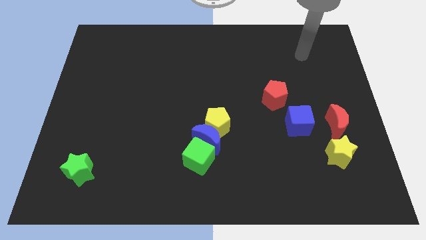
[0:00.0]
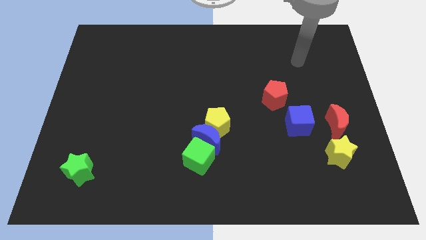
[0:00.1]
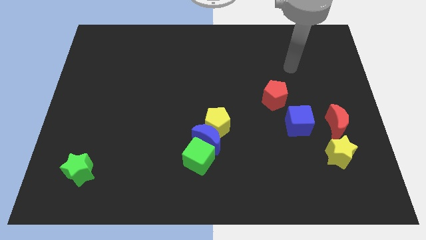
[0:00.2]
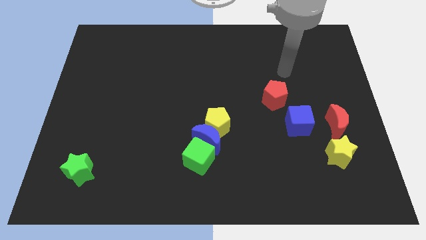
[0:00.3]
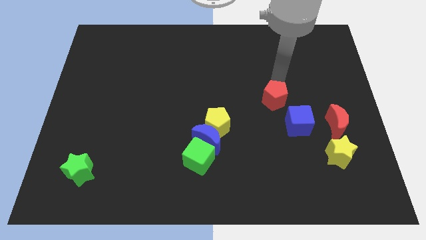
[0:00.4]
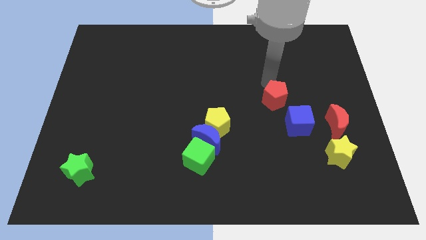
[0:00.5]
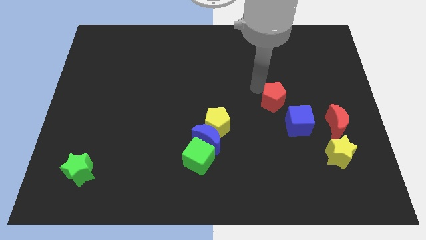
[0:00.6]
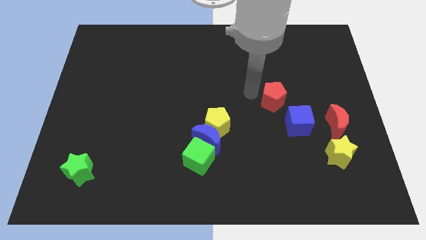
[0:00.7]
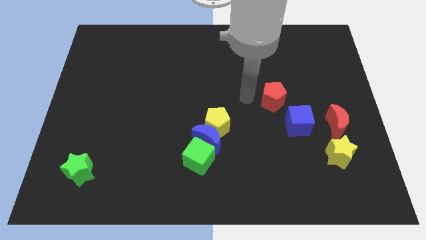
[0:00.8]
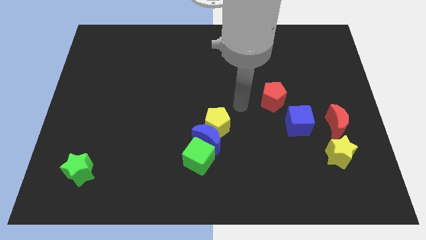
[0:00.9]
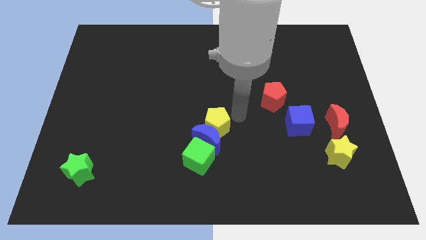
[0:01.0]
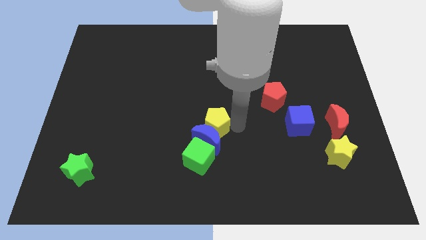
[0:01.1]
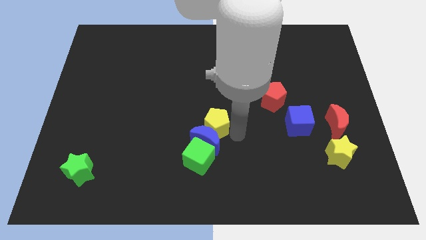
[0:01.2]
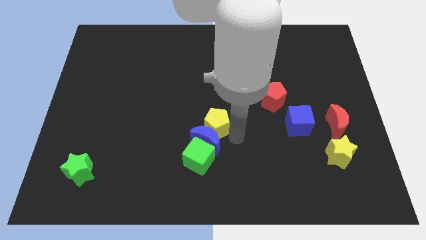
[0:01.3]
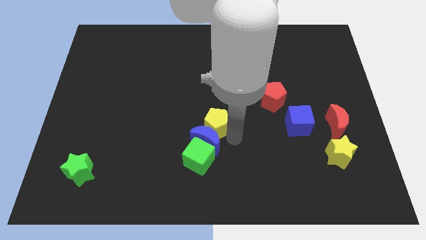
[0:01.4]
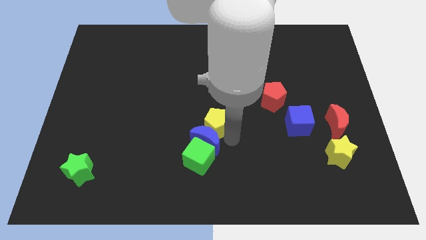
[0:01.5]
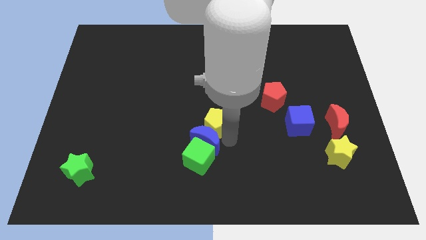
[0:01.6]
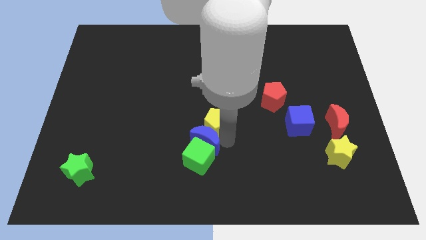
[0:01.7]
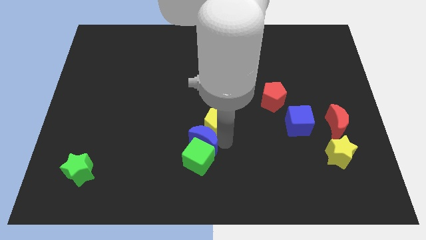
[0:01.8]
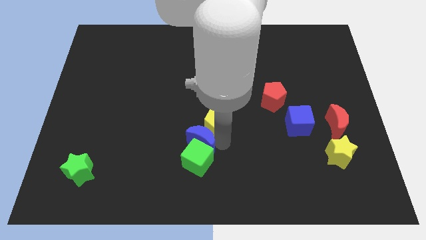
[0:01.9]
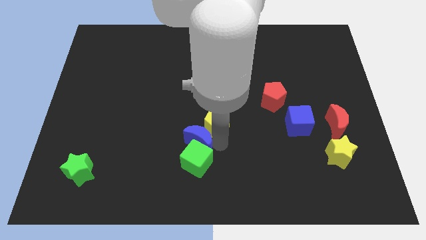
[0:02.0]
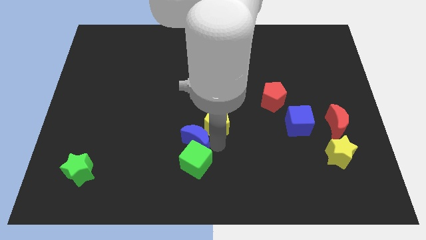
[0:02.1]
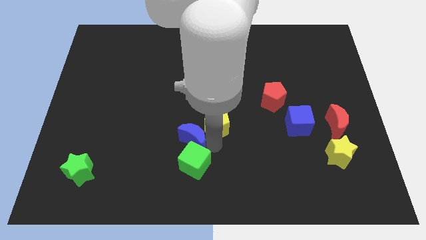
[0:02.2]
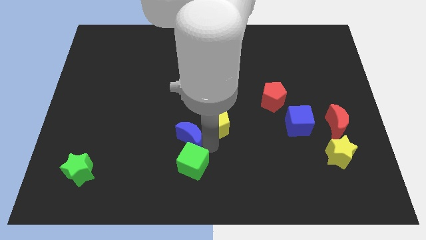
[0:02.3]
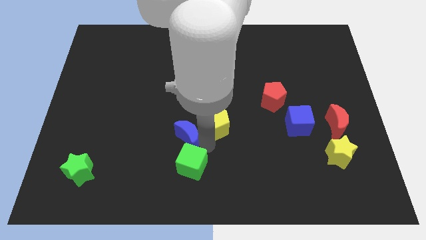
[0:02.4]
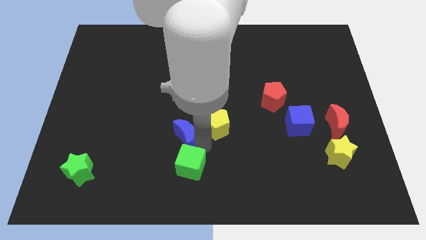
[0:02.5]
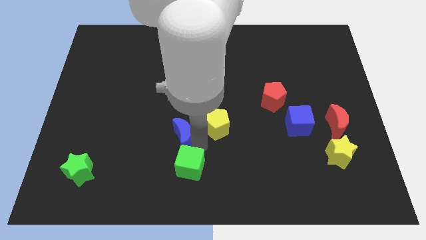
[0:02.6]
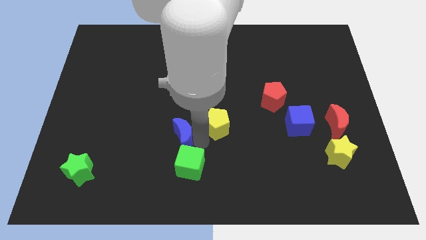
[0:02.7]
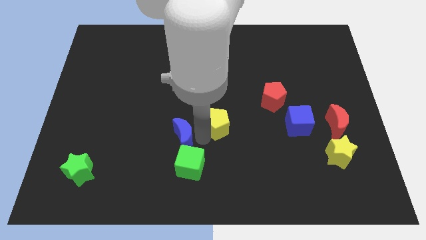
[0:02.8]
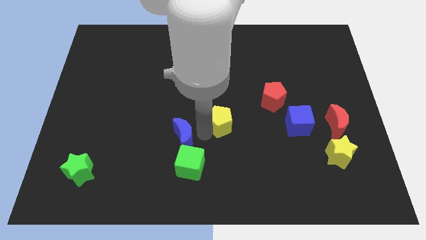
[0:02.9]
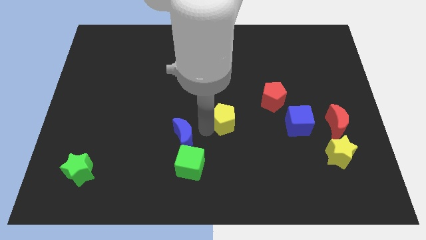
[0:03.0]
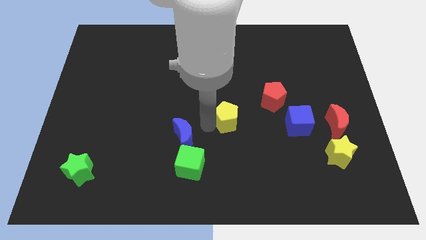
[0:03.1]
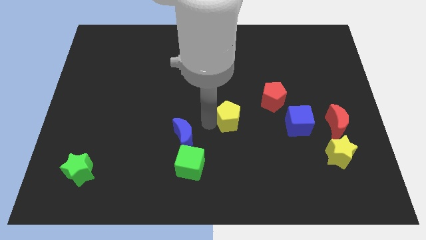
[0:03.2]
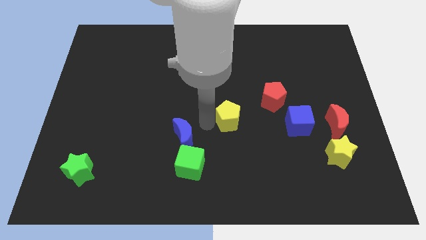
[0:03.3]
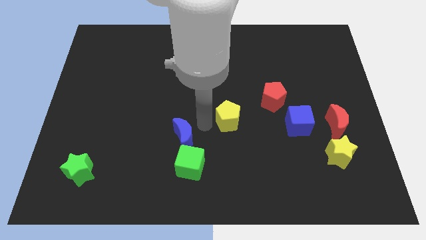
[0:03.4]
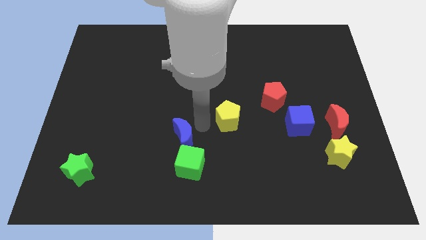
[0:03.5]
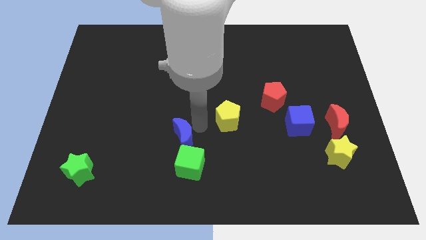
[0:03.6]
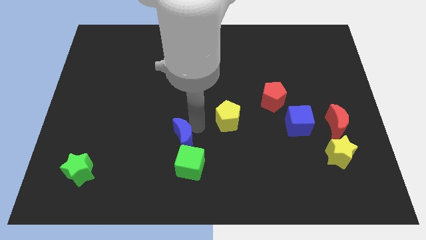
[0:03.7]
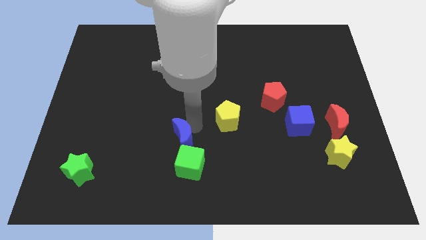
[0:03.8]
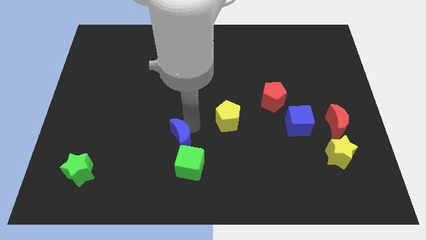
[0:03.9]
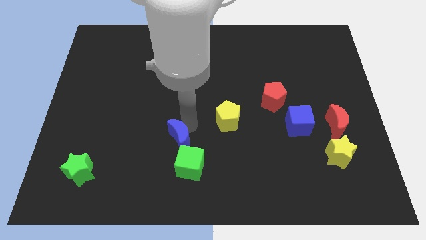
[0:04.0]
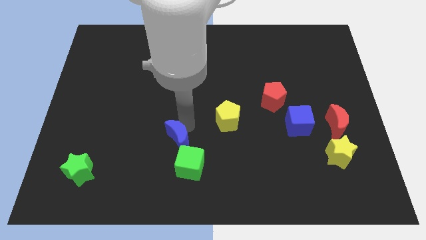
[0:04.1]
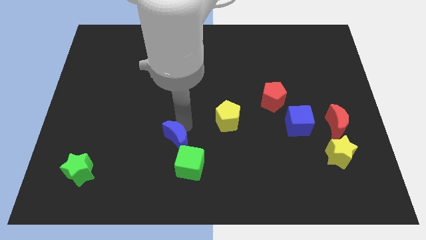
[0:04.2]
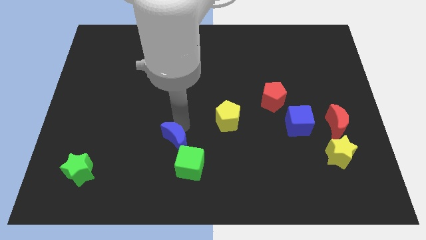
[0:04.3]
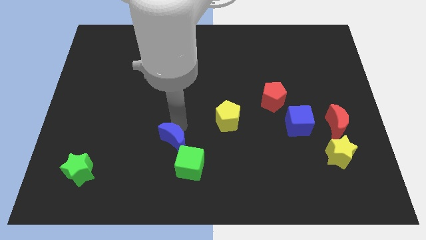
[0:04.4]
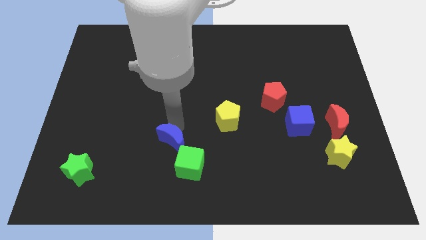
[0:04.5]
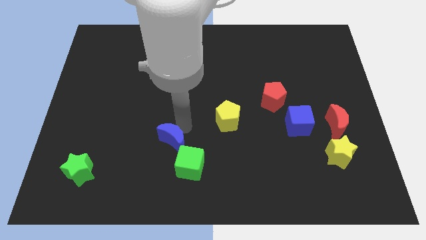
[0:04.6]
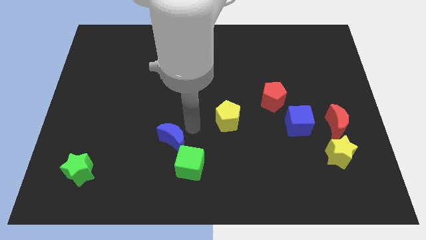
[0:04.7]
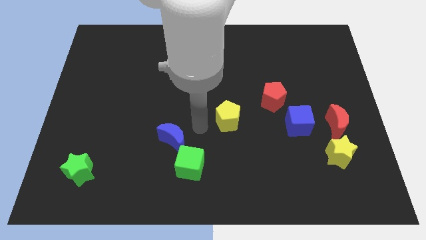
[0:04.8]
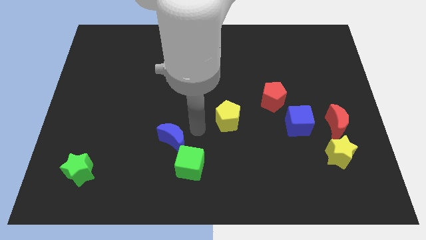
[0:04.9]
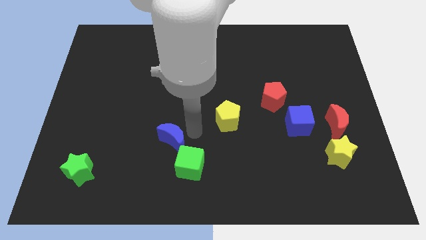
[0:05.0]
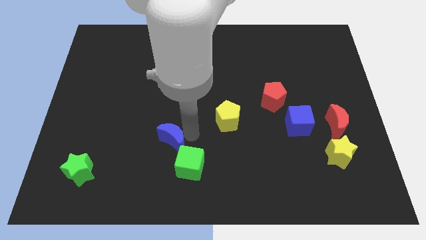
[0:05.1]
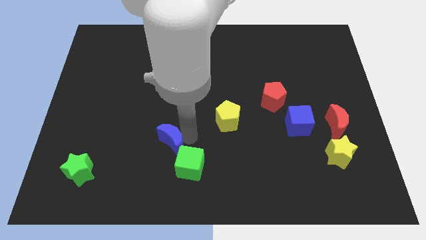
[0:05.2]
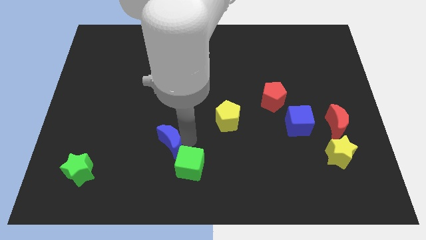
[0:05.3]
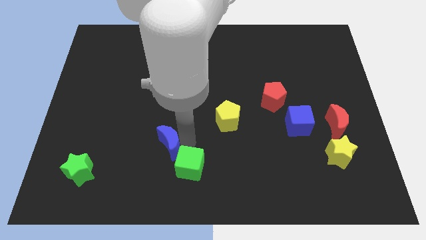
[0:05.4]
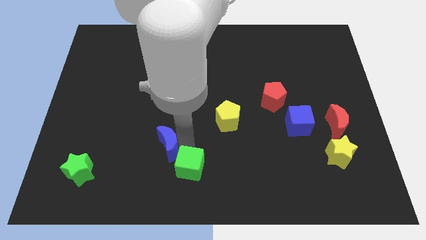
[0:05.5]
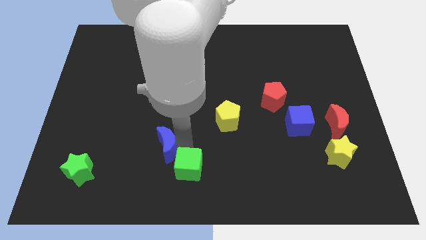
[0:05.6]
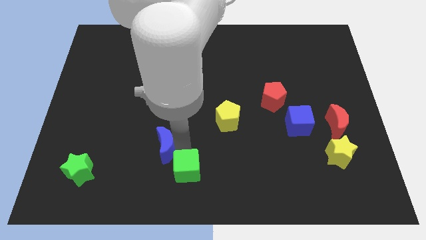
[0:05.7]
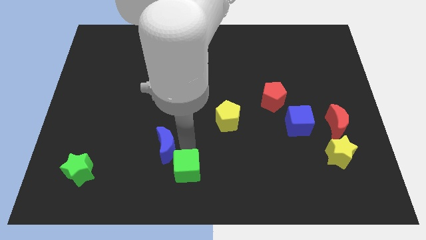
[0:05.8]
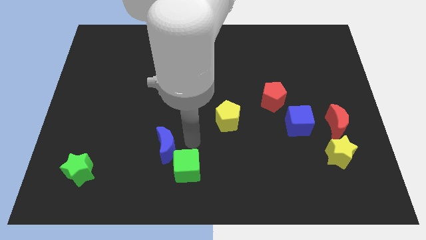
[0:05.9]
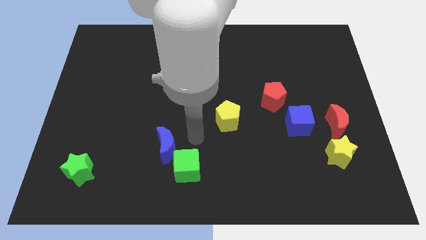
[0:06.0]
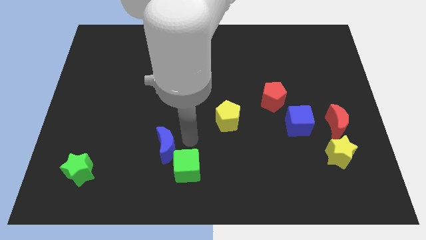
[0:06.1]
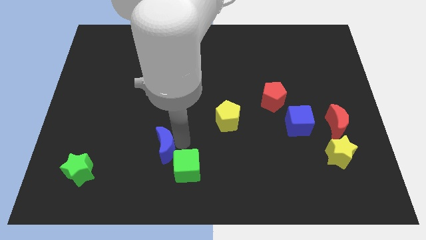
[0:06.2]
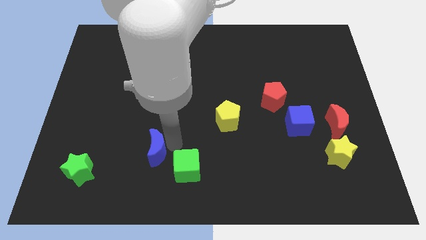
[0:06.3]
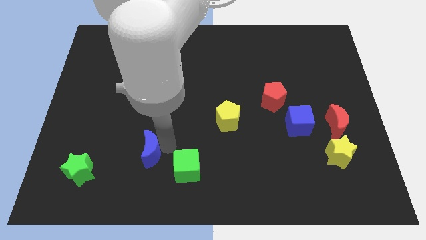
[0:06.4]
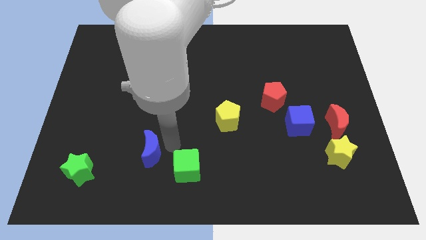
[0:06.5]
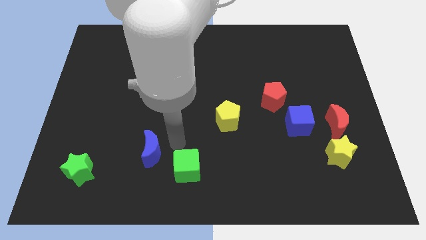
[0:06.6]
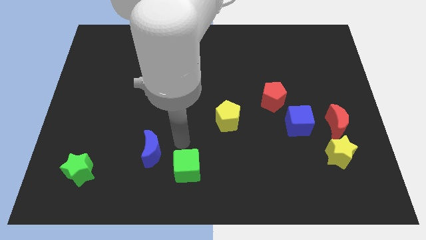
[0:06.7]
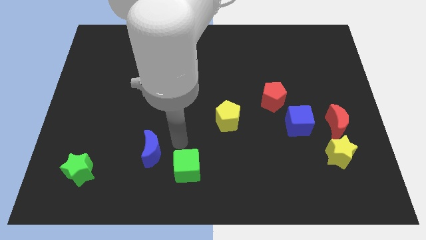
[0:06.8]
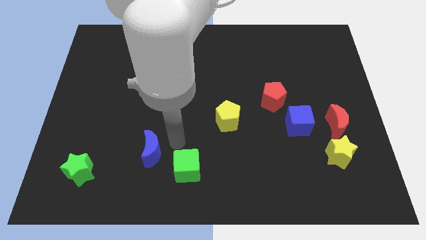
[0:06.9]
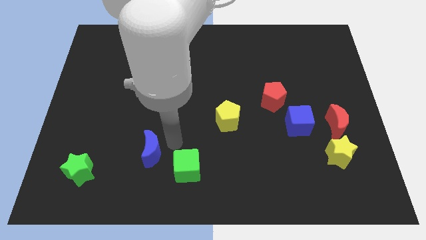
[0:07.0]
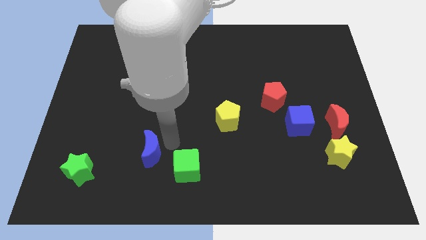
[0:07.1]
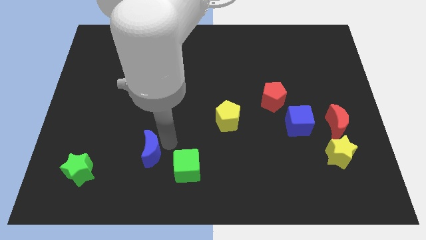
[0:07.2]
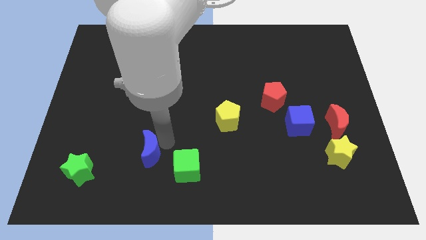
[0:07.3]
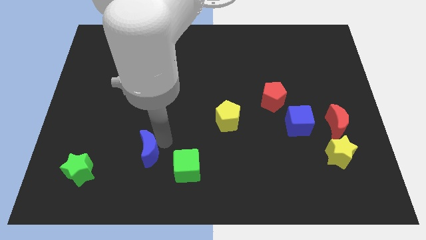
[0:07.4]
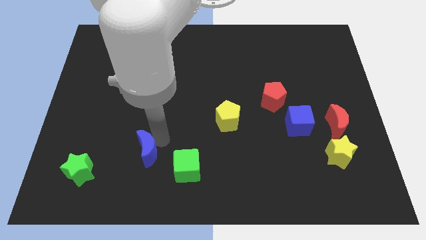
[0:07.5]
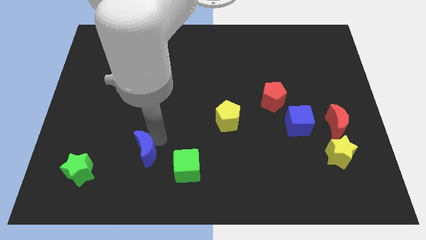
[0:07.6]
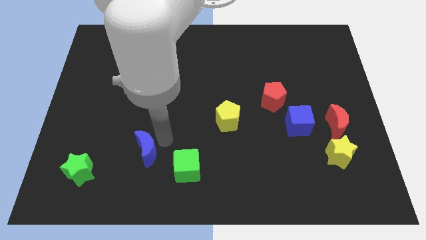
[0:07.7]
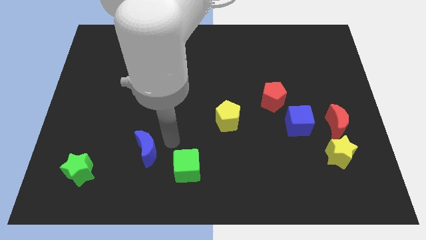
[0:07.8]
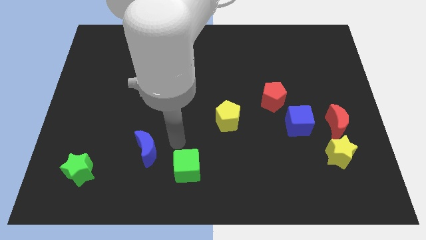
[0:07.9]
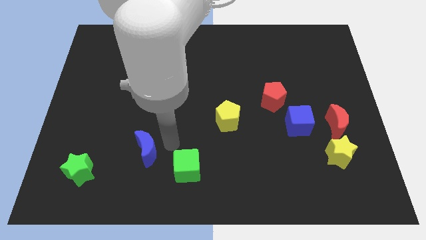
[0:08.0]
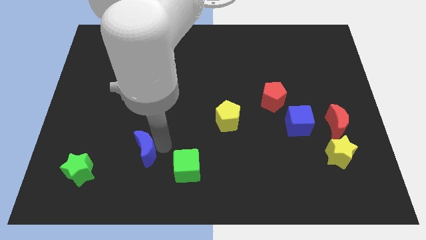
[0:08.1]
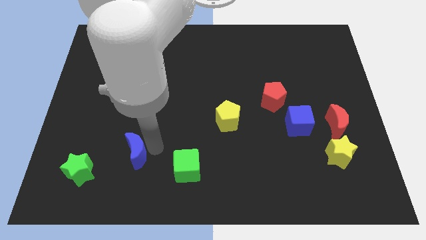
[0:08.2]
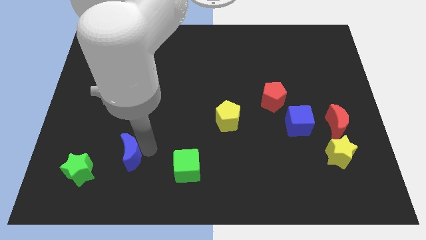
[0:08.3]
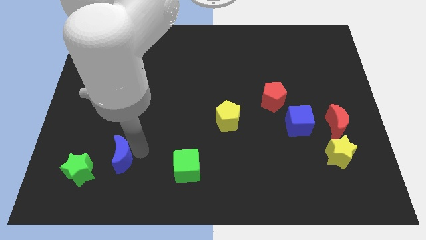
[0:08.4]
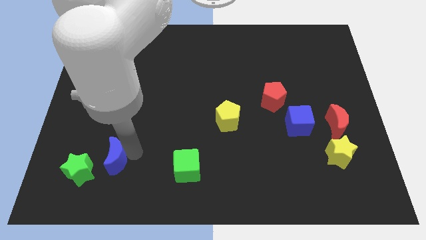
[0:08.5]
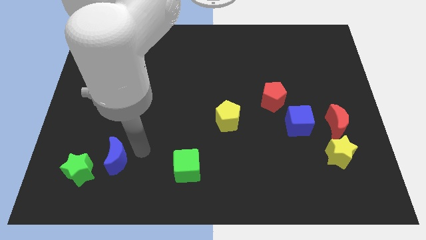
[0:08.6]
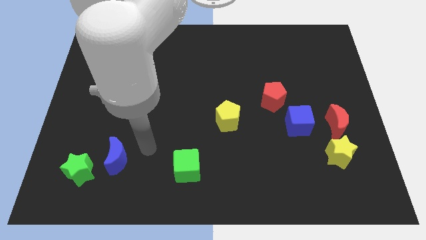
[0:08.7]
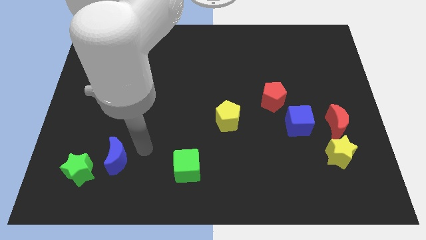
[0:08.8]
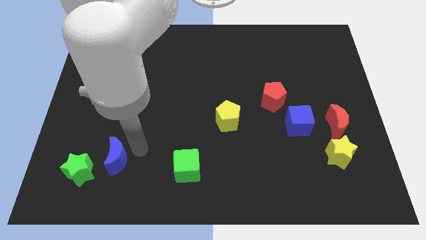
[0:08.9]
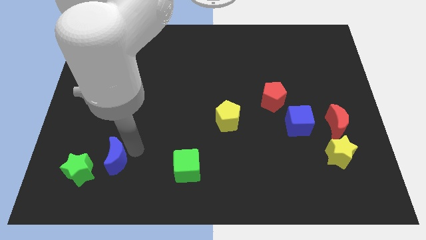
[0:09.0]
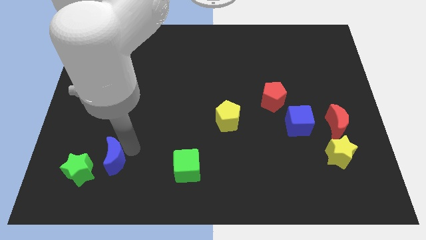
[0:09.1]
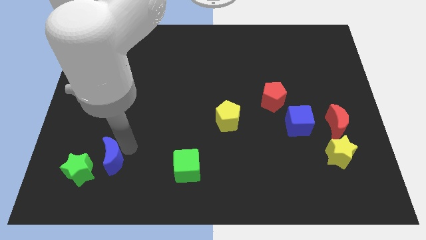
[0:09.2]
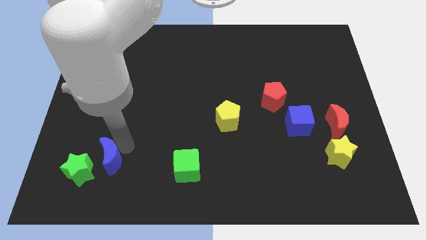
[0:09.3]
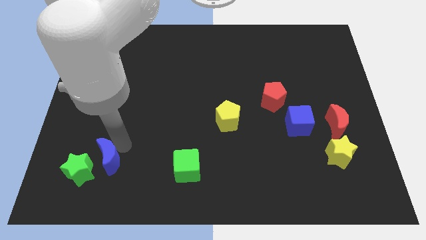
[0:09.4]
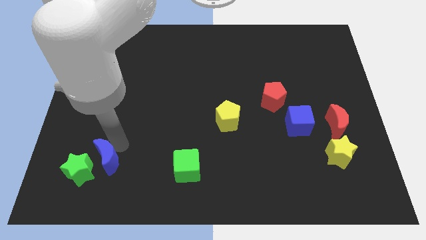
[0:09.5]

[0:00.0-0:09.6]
push the blue moon towards the green star
